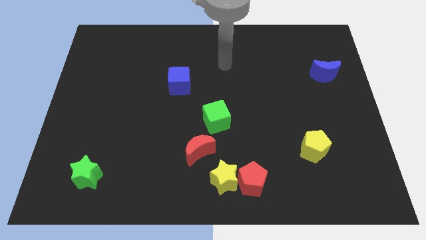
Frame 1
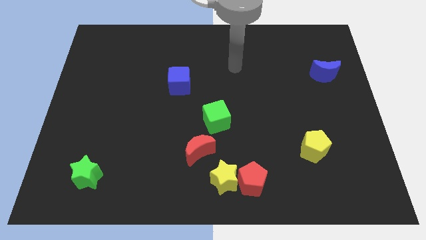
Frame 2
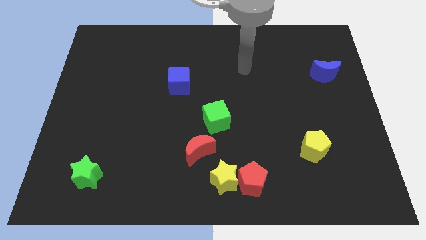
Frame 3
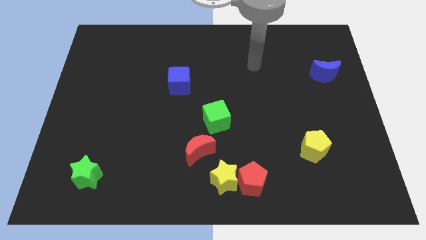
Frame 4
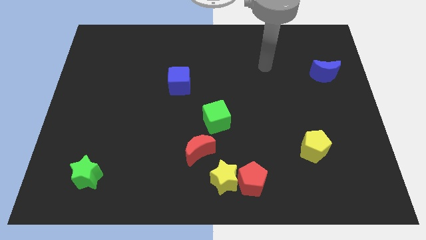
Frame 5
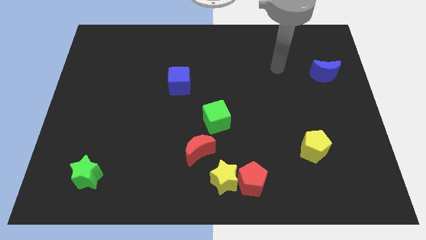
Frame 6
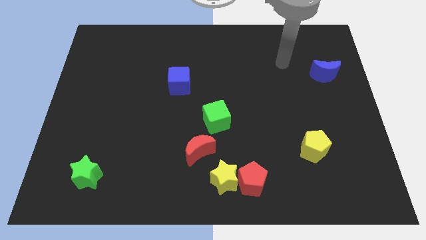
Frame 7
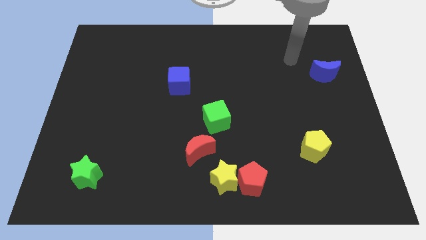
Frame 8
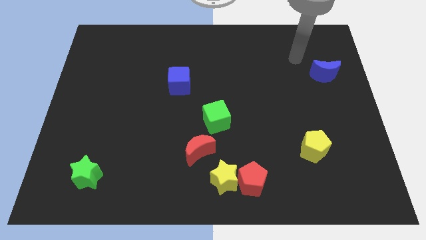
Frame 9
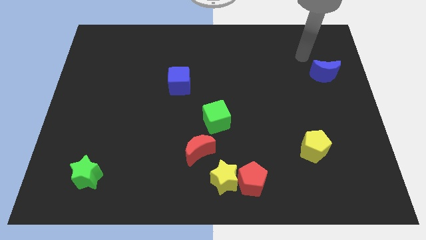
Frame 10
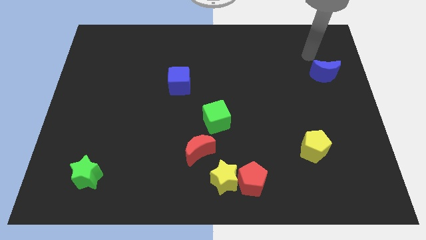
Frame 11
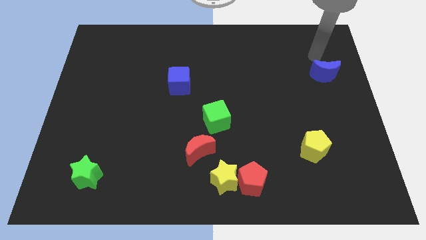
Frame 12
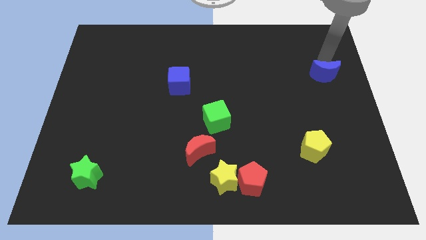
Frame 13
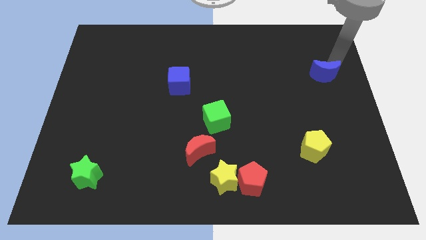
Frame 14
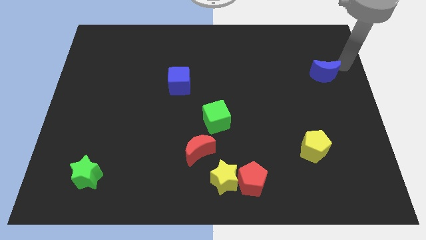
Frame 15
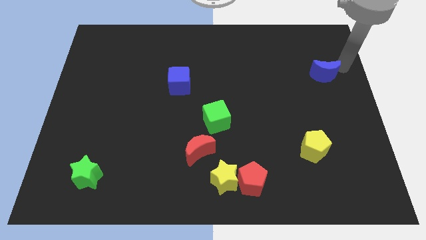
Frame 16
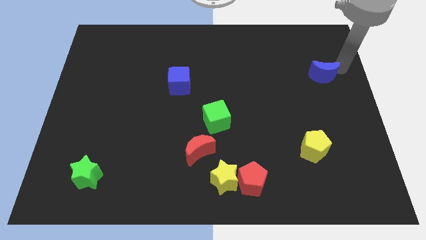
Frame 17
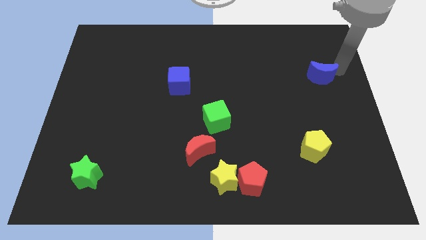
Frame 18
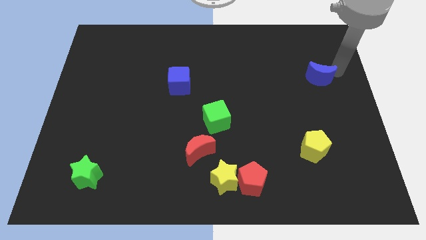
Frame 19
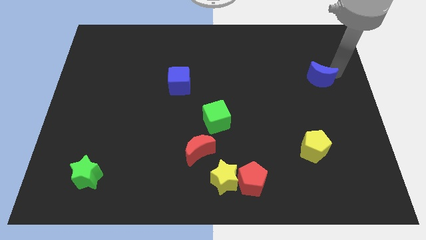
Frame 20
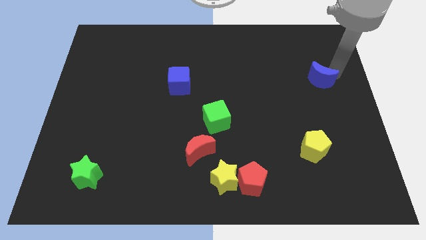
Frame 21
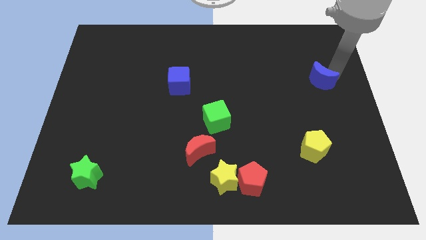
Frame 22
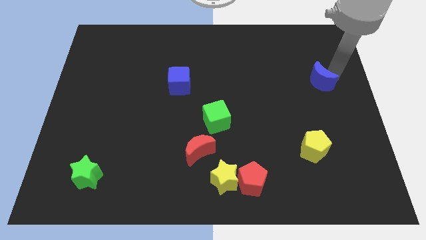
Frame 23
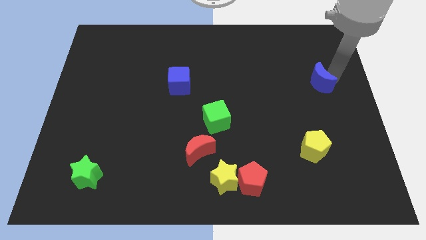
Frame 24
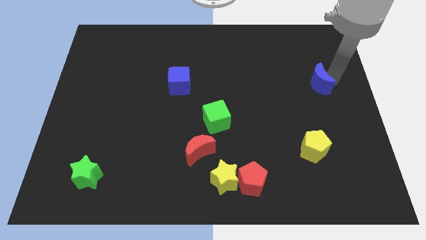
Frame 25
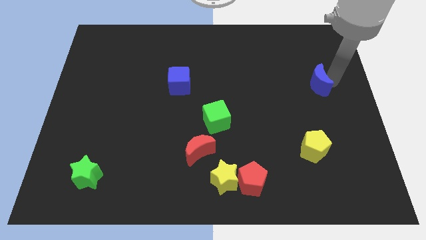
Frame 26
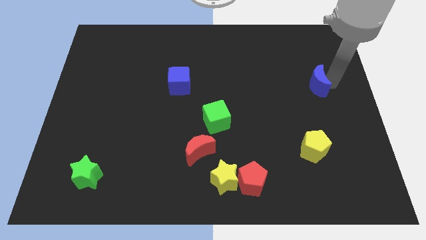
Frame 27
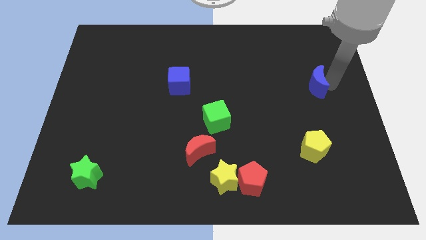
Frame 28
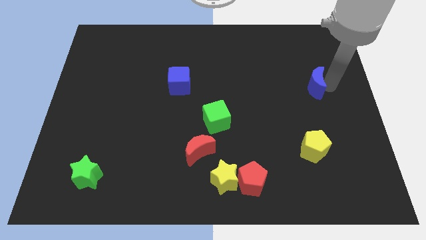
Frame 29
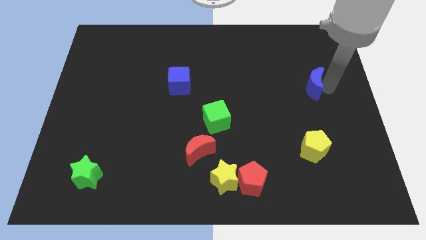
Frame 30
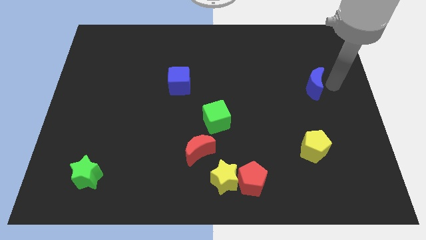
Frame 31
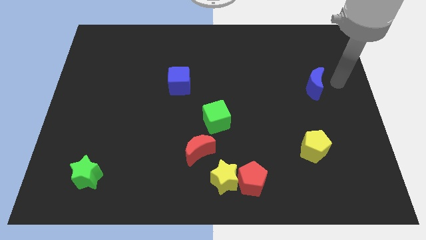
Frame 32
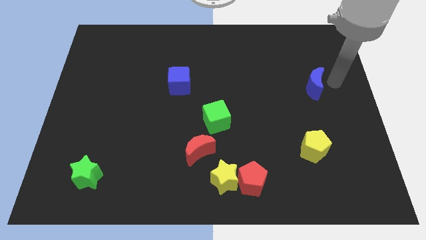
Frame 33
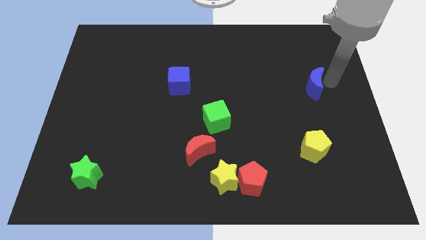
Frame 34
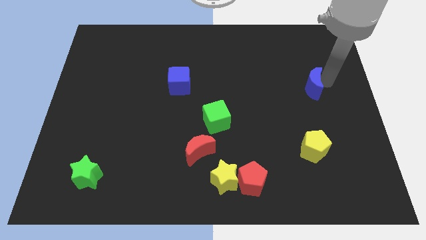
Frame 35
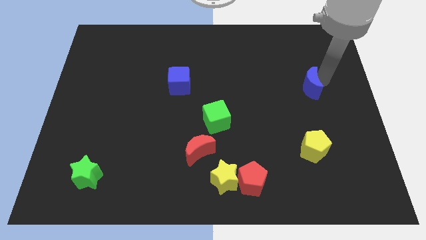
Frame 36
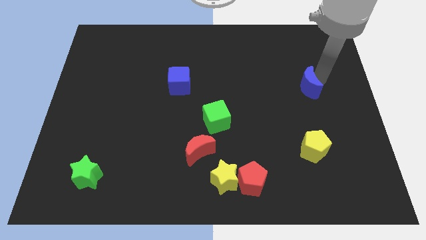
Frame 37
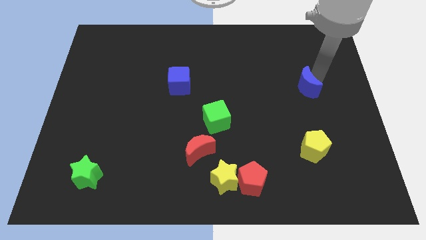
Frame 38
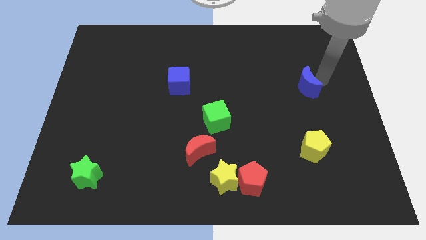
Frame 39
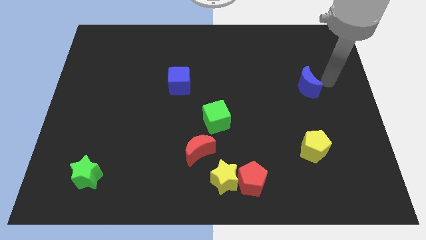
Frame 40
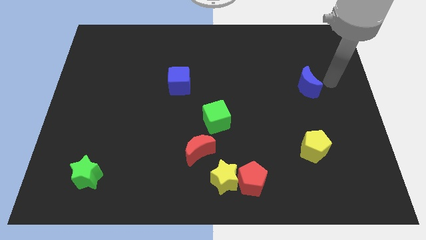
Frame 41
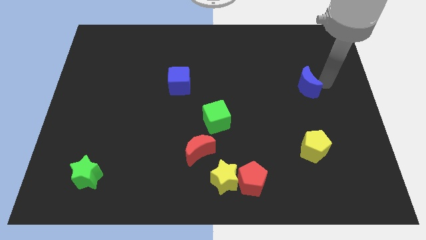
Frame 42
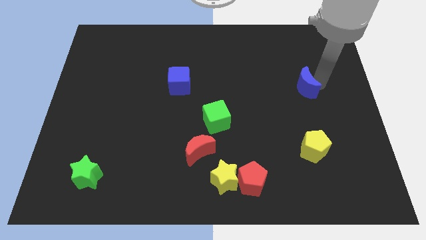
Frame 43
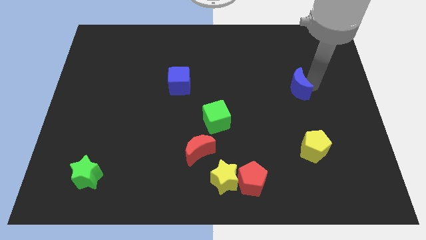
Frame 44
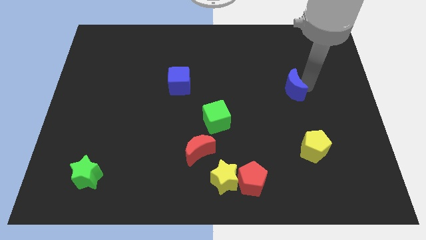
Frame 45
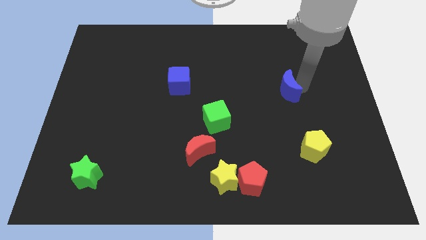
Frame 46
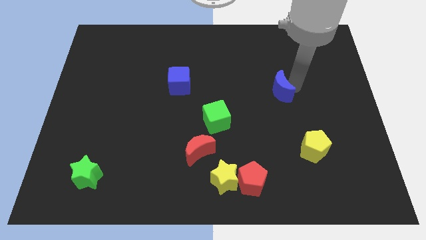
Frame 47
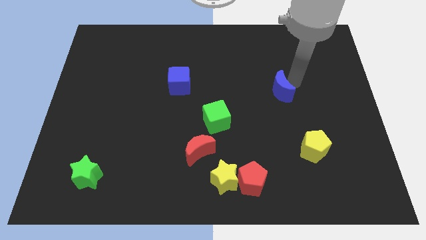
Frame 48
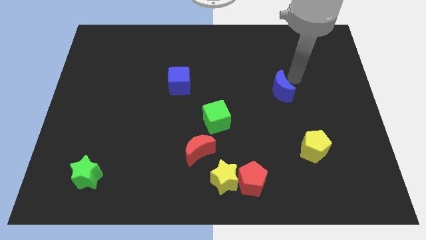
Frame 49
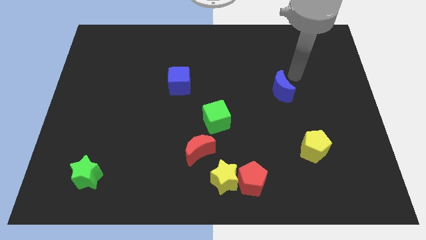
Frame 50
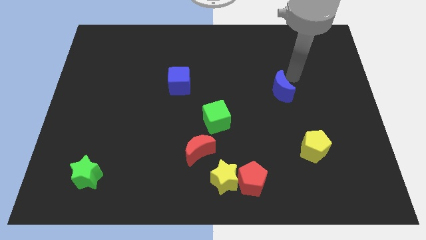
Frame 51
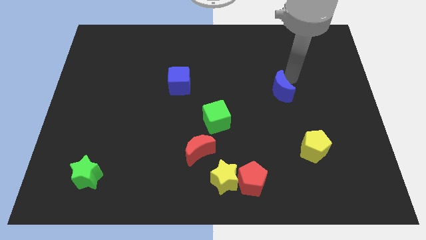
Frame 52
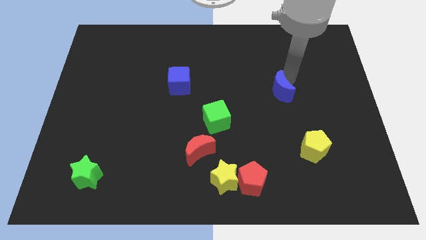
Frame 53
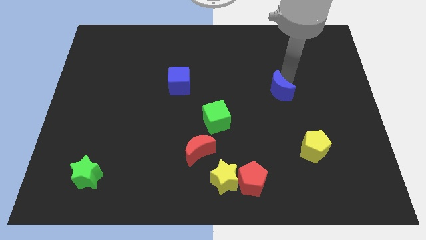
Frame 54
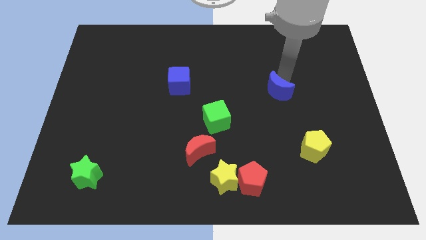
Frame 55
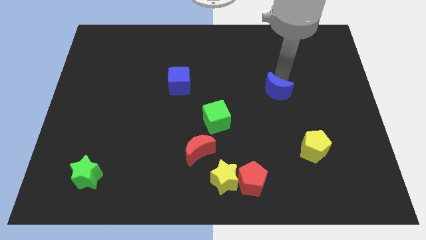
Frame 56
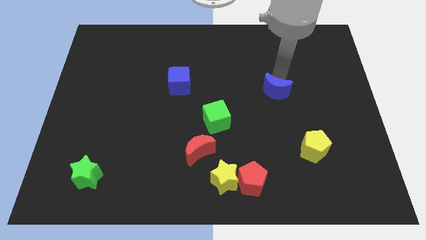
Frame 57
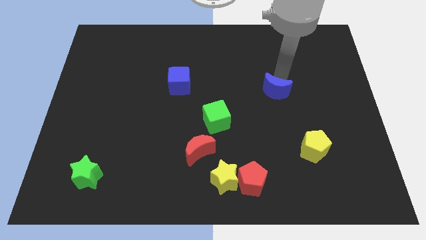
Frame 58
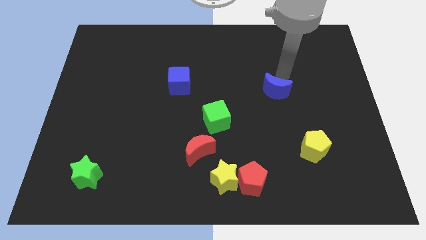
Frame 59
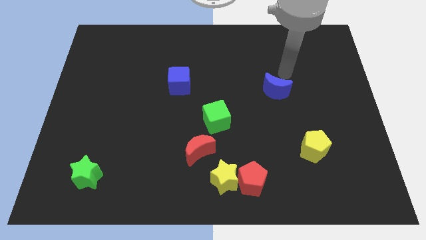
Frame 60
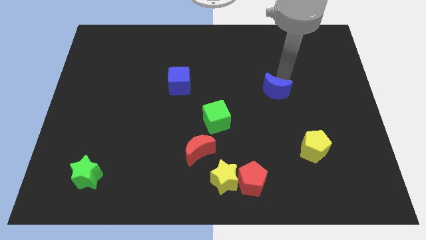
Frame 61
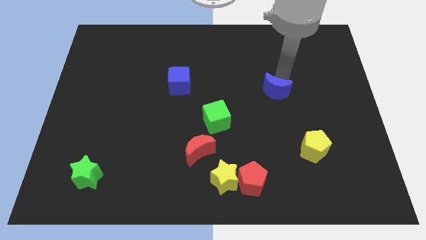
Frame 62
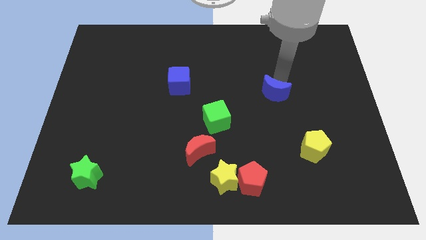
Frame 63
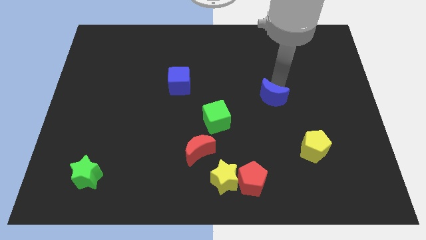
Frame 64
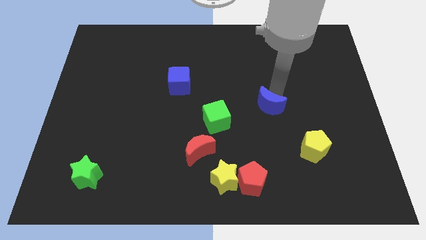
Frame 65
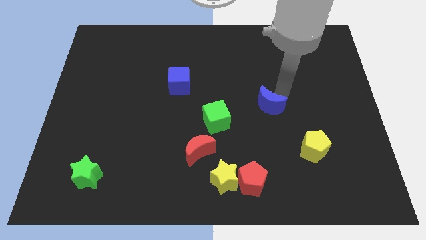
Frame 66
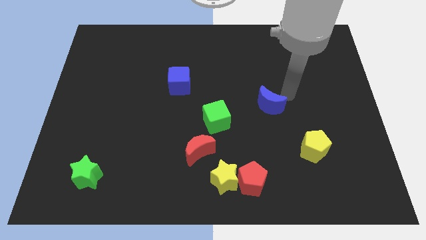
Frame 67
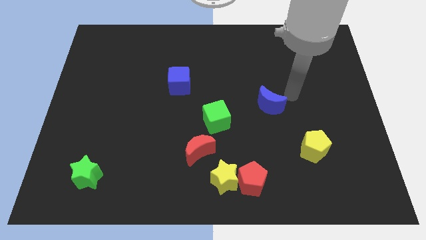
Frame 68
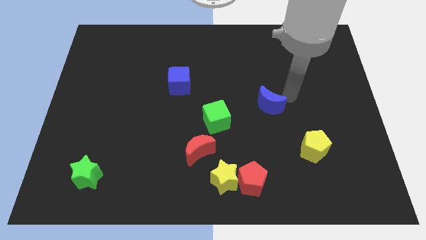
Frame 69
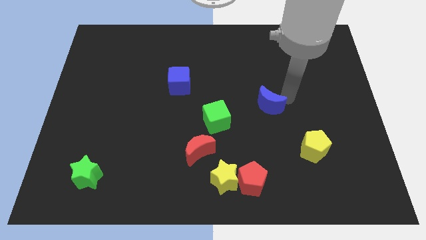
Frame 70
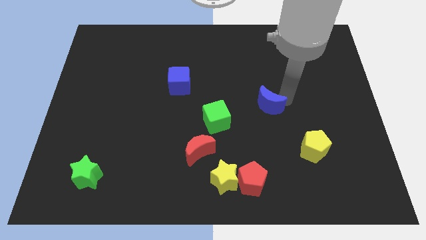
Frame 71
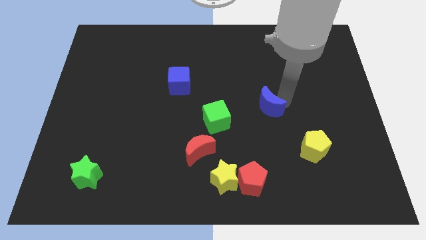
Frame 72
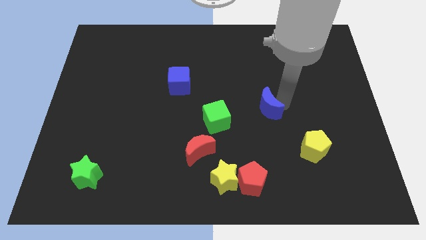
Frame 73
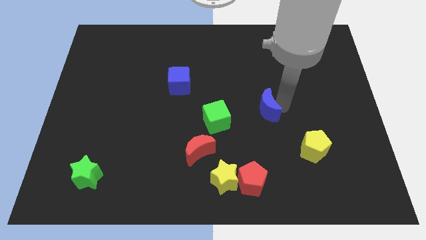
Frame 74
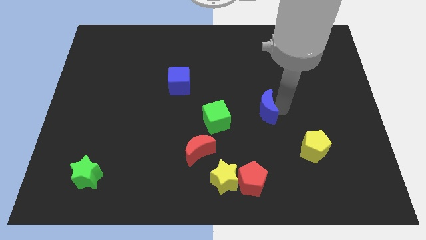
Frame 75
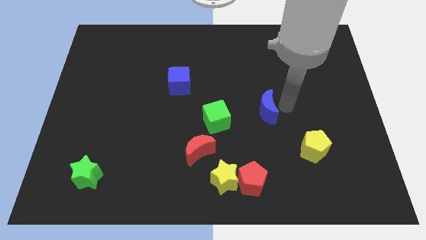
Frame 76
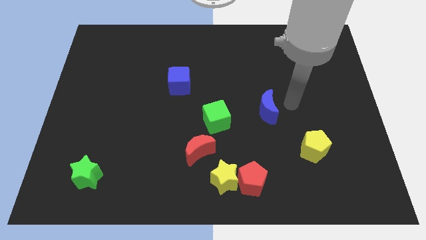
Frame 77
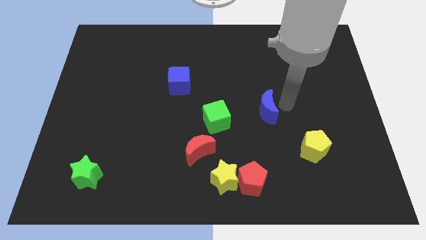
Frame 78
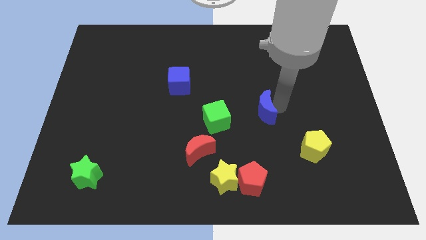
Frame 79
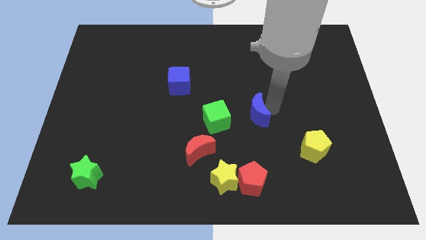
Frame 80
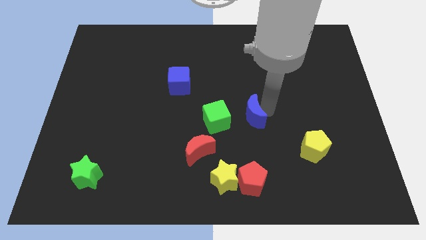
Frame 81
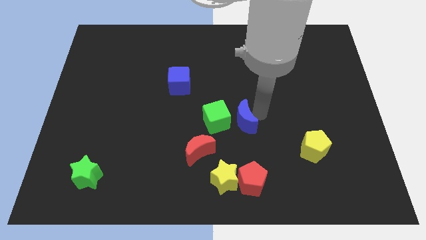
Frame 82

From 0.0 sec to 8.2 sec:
put the blue moon towards the green cube

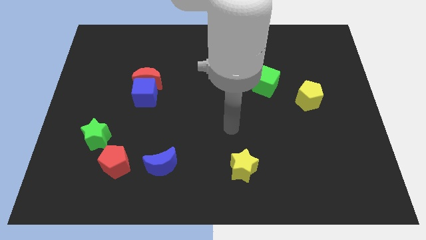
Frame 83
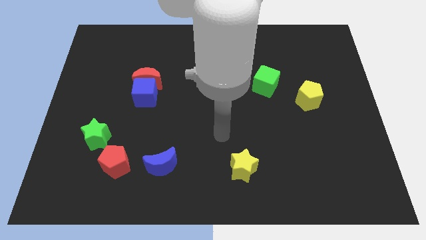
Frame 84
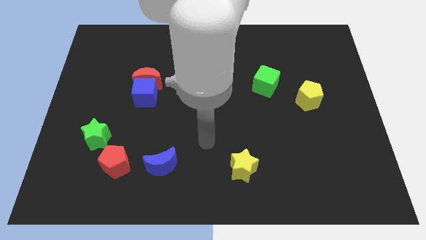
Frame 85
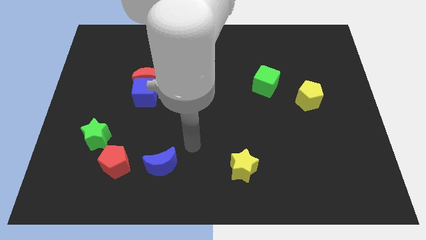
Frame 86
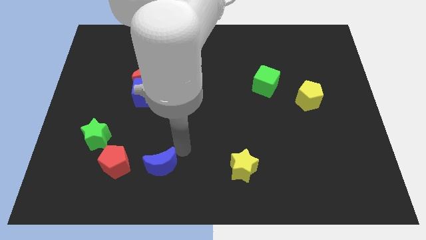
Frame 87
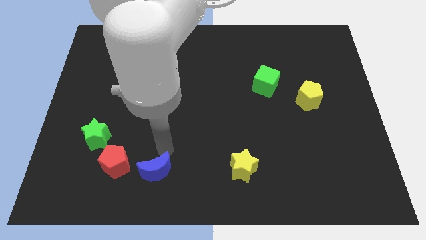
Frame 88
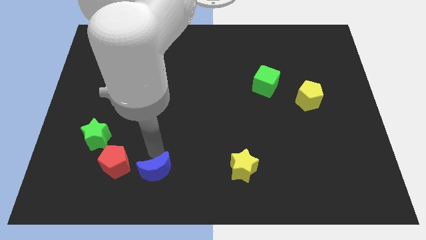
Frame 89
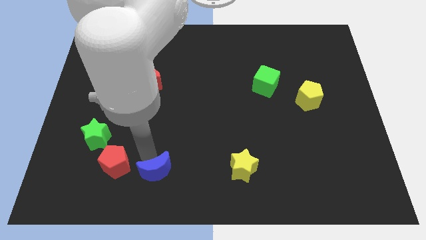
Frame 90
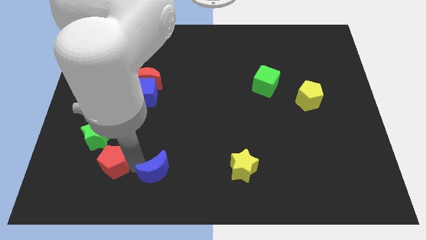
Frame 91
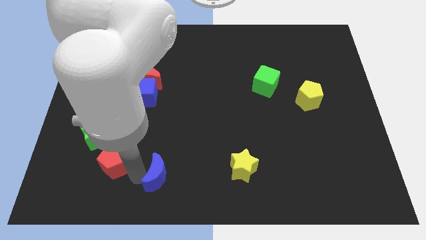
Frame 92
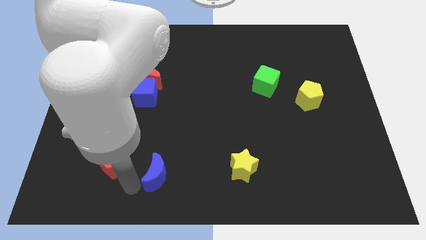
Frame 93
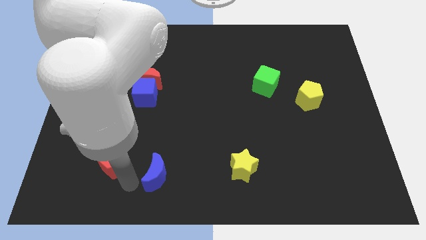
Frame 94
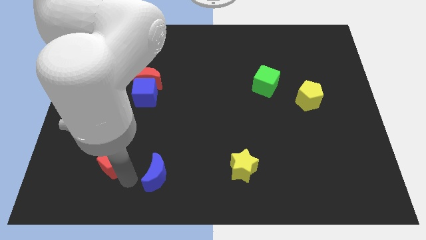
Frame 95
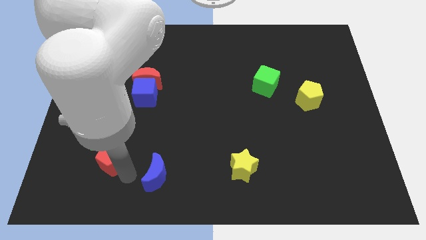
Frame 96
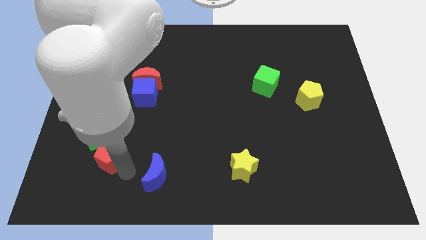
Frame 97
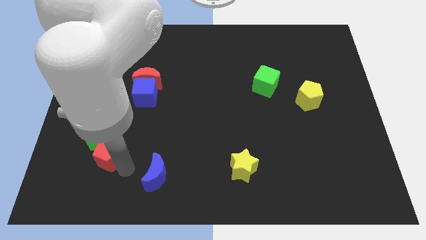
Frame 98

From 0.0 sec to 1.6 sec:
push the red pentagon close to the green star
